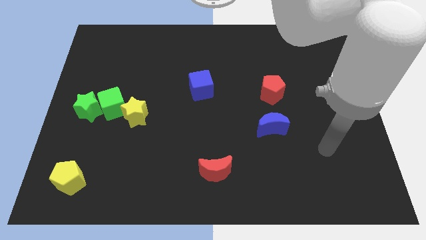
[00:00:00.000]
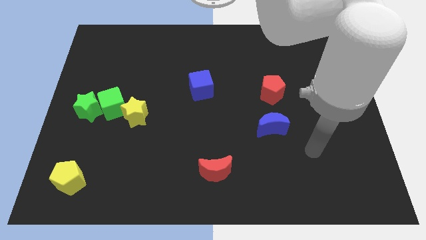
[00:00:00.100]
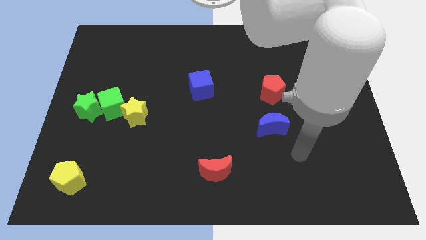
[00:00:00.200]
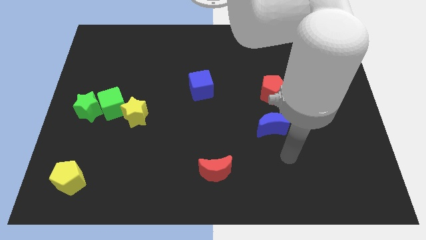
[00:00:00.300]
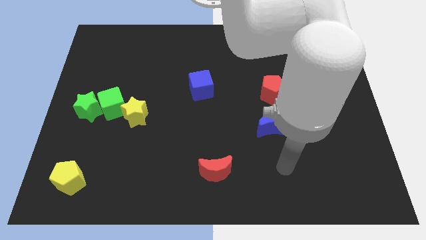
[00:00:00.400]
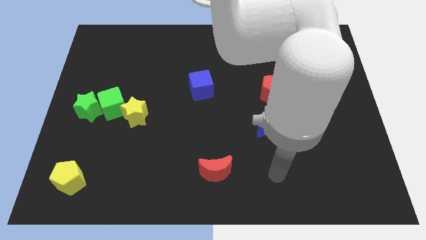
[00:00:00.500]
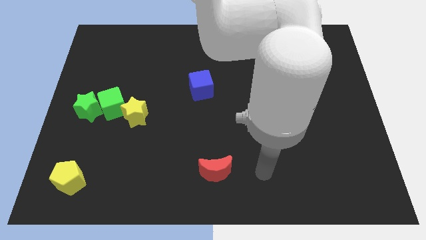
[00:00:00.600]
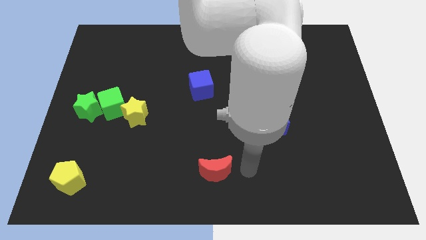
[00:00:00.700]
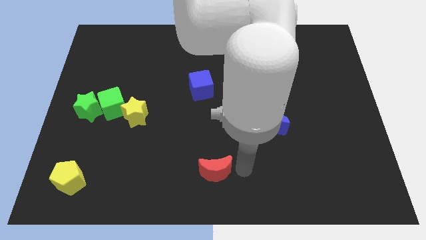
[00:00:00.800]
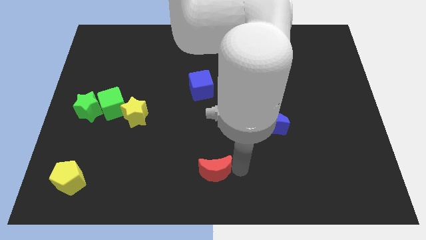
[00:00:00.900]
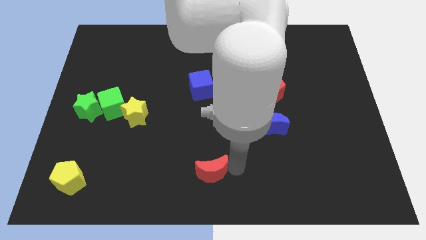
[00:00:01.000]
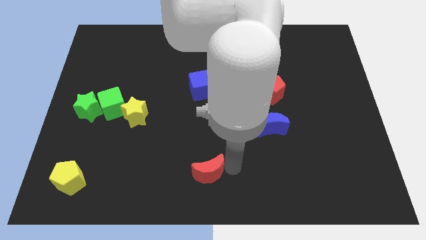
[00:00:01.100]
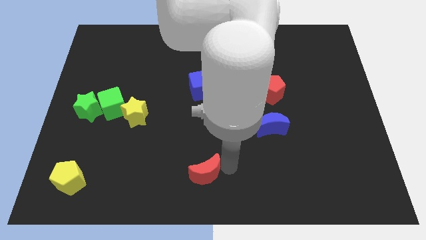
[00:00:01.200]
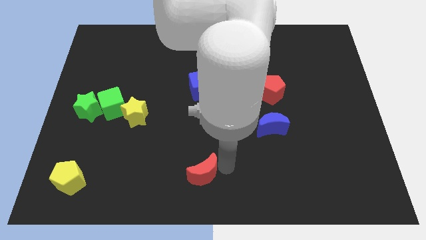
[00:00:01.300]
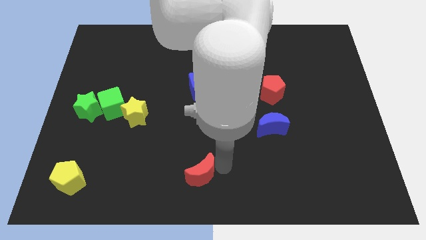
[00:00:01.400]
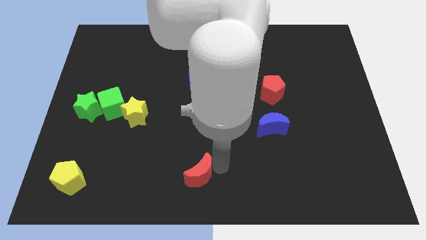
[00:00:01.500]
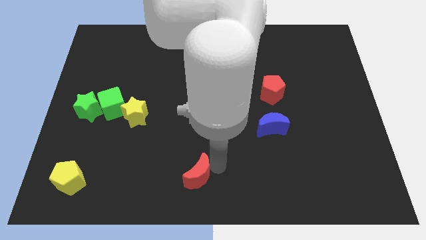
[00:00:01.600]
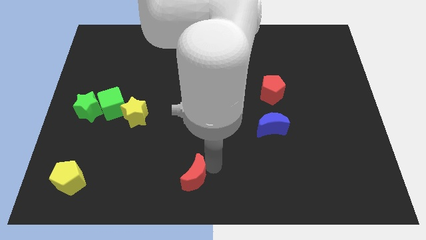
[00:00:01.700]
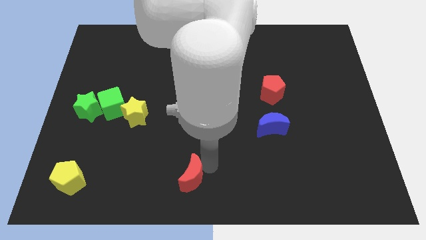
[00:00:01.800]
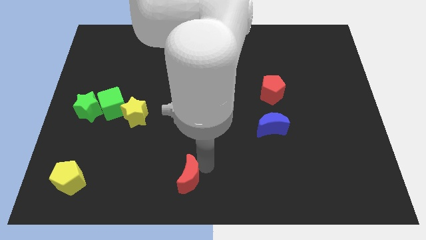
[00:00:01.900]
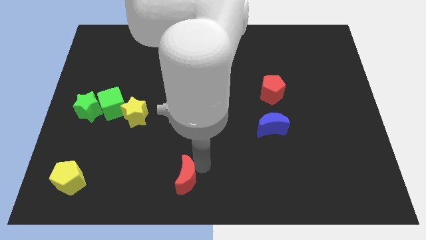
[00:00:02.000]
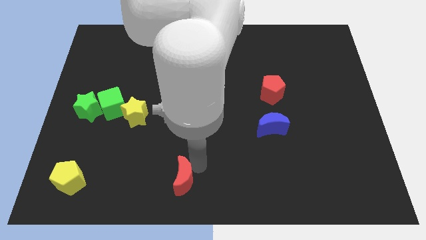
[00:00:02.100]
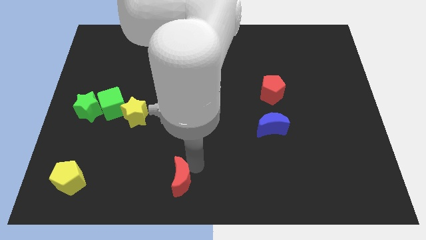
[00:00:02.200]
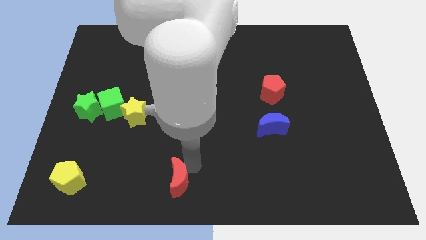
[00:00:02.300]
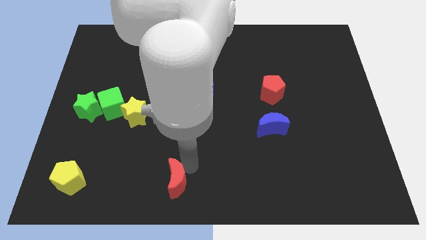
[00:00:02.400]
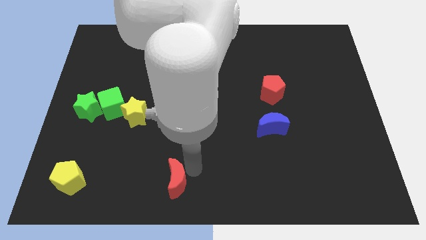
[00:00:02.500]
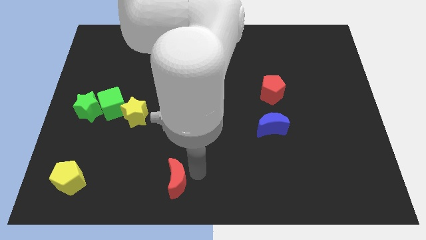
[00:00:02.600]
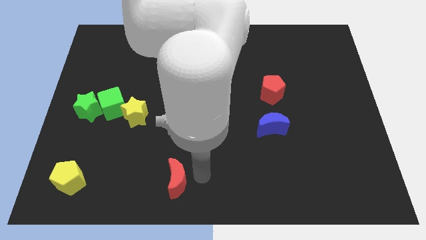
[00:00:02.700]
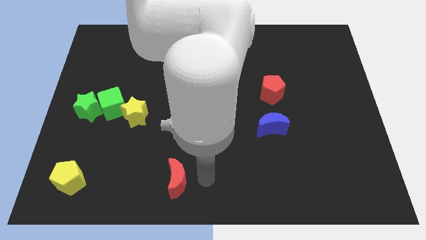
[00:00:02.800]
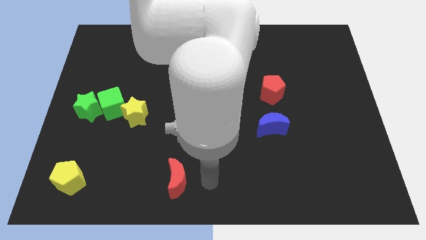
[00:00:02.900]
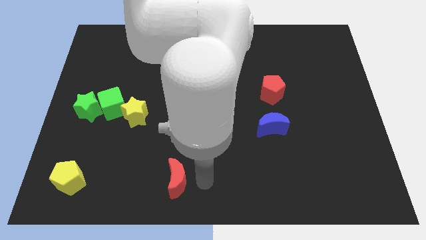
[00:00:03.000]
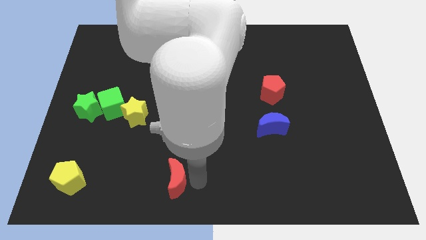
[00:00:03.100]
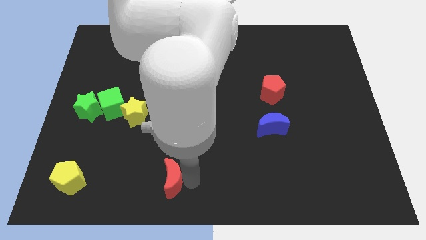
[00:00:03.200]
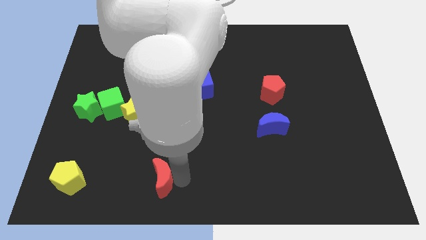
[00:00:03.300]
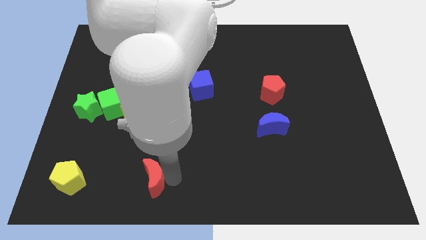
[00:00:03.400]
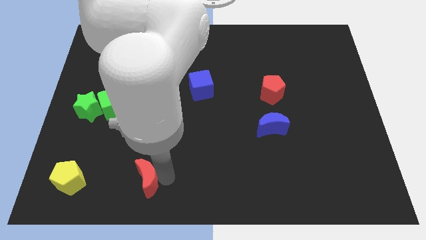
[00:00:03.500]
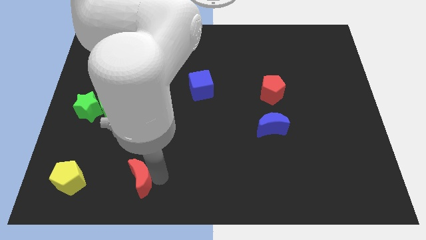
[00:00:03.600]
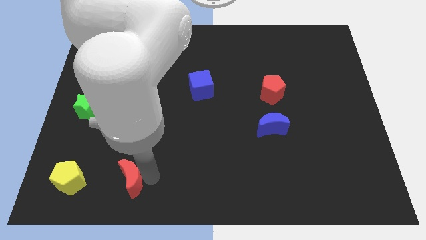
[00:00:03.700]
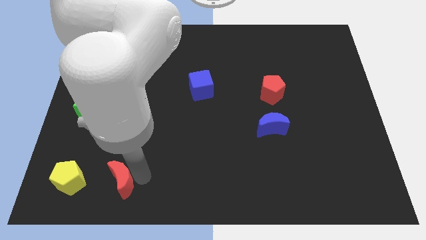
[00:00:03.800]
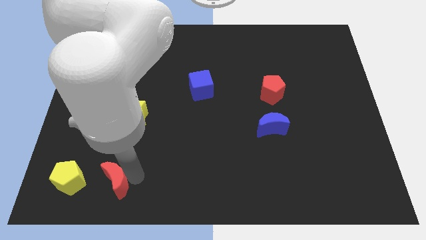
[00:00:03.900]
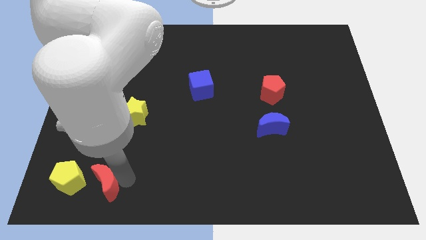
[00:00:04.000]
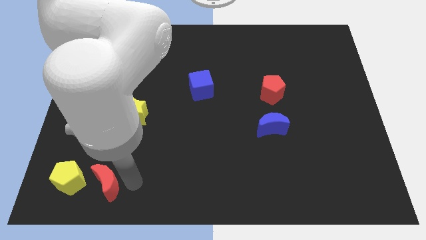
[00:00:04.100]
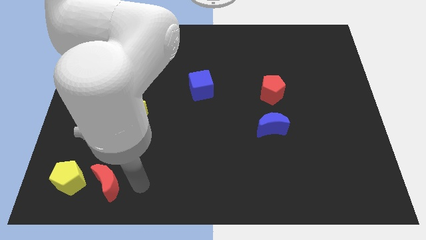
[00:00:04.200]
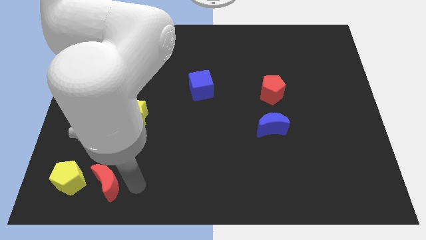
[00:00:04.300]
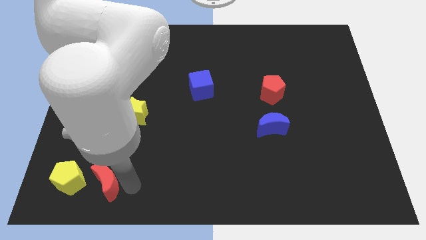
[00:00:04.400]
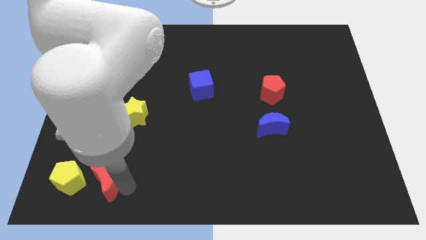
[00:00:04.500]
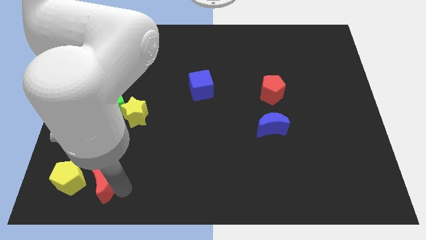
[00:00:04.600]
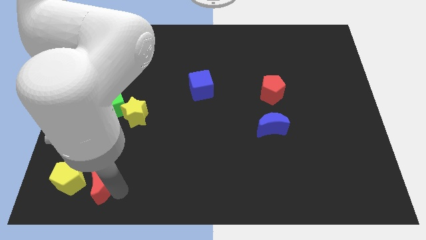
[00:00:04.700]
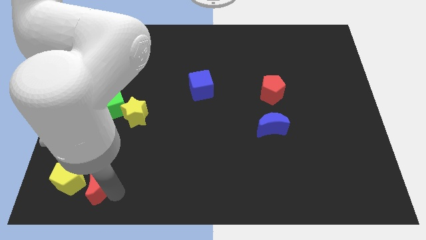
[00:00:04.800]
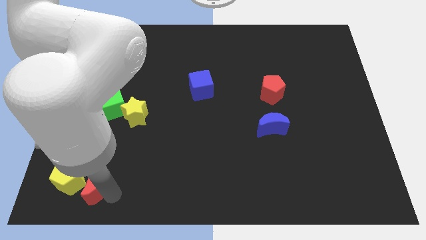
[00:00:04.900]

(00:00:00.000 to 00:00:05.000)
put the red moon close to the yellow pentagon

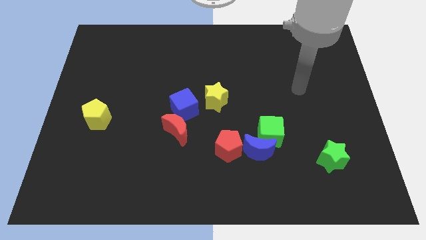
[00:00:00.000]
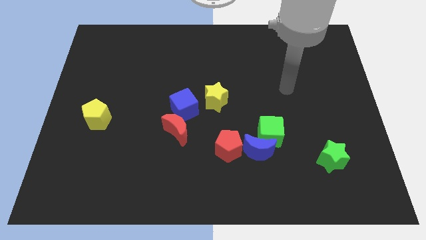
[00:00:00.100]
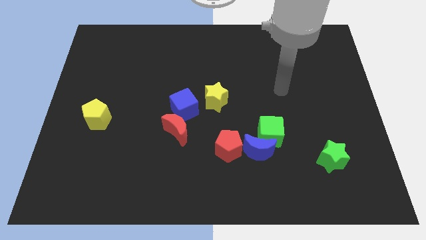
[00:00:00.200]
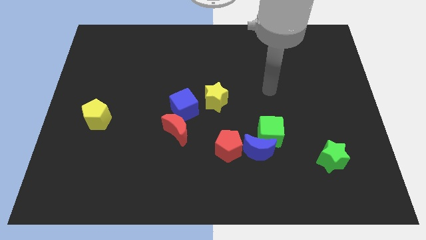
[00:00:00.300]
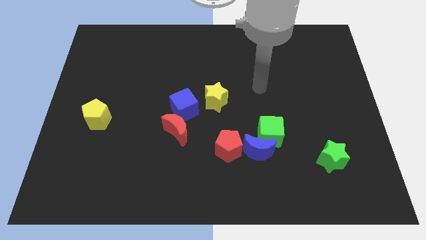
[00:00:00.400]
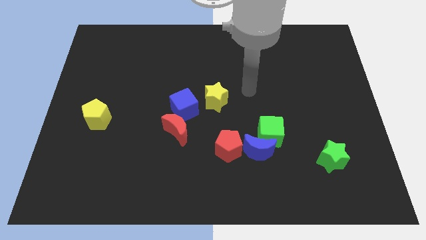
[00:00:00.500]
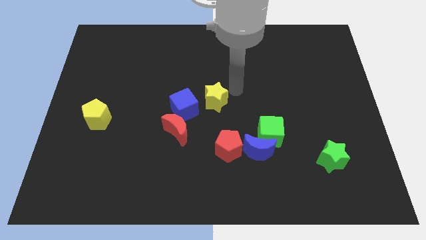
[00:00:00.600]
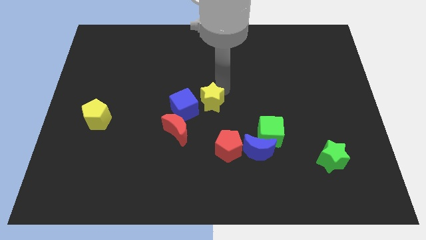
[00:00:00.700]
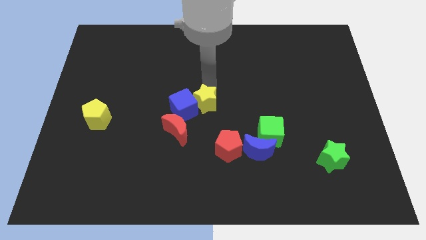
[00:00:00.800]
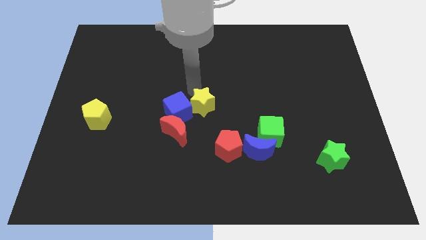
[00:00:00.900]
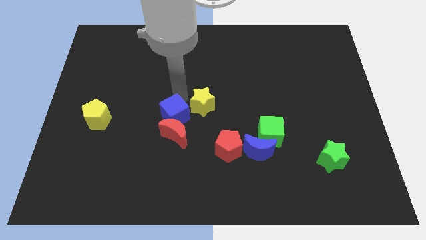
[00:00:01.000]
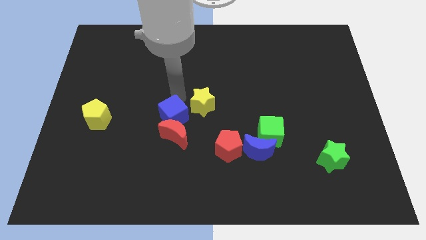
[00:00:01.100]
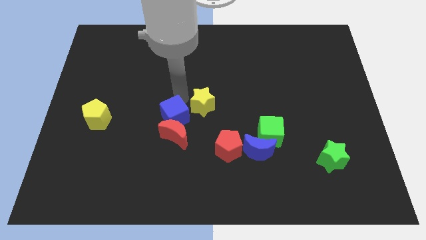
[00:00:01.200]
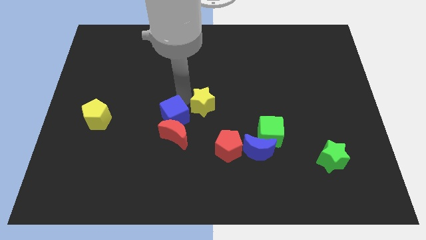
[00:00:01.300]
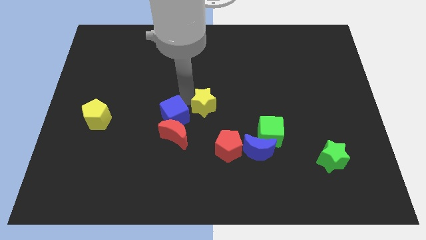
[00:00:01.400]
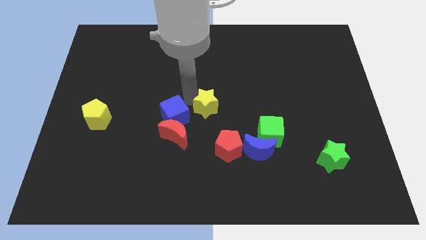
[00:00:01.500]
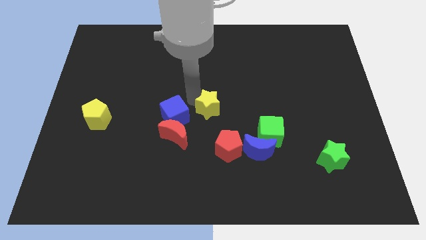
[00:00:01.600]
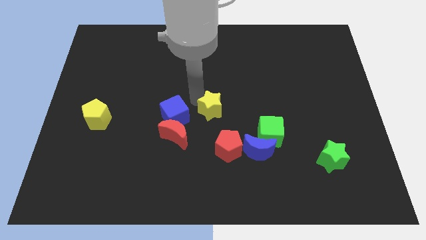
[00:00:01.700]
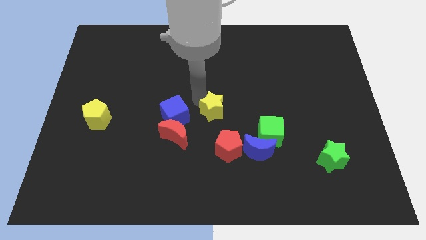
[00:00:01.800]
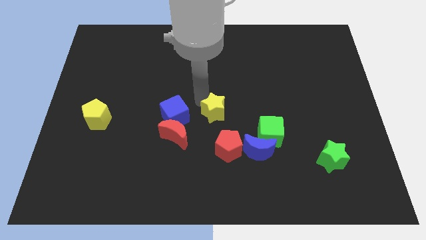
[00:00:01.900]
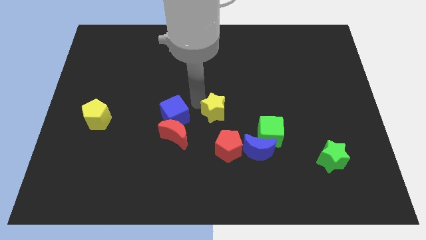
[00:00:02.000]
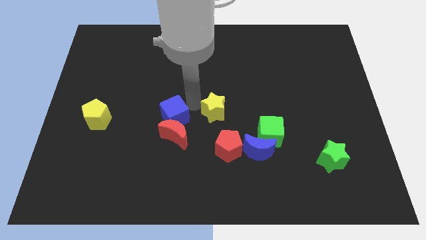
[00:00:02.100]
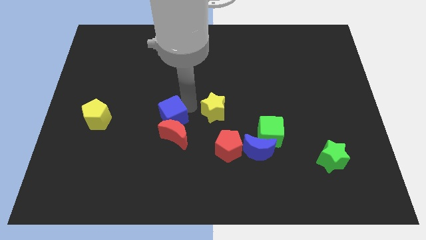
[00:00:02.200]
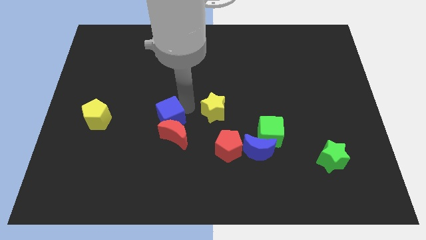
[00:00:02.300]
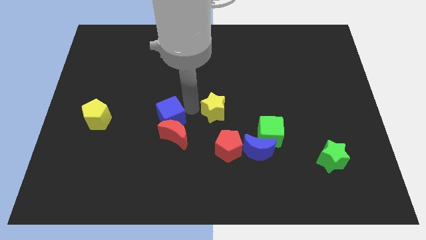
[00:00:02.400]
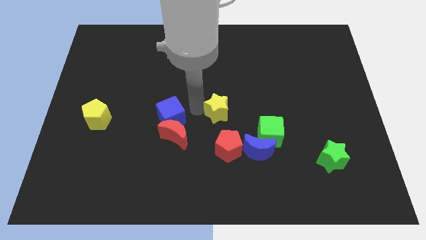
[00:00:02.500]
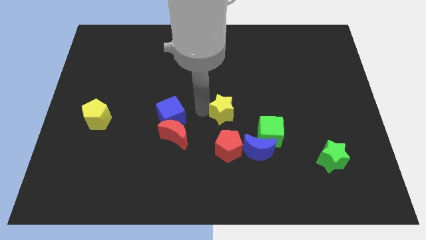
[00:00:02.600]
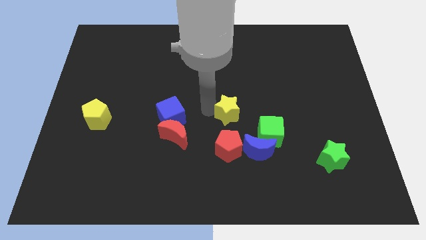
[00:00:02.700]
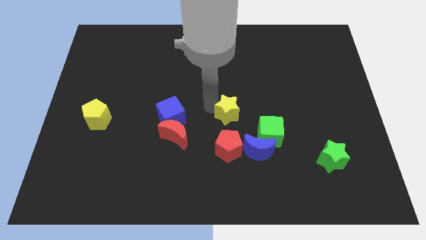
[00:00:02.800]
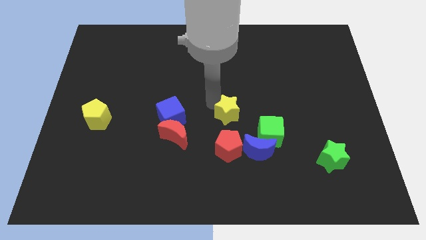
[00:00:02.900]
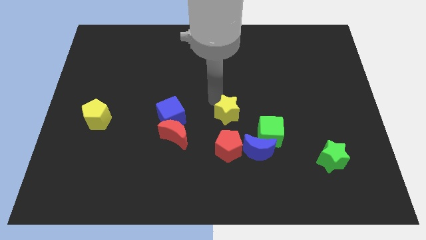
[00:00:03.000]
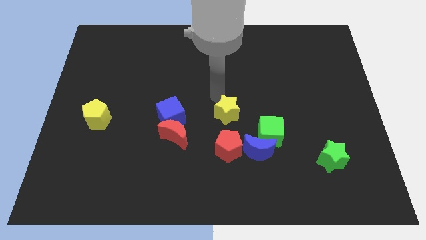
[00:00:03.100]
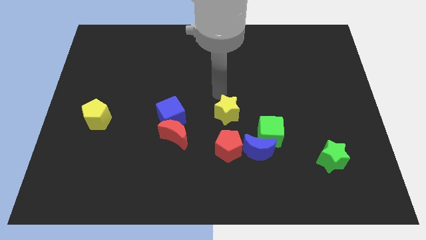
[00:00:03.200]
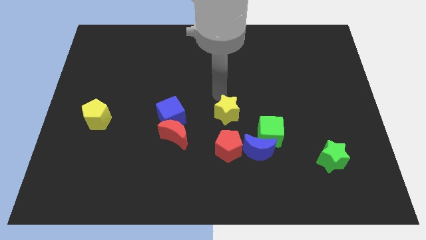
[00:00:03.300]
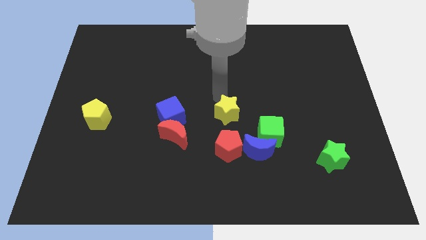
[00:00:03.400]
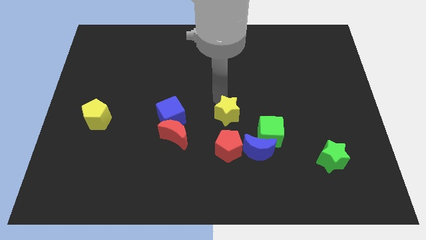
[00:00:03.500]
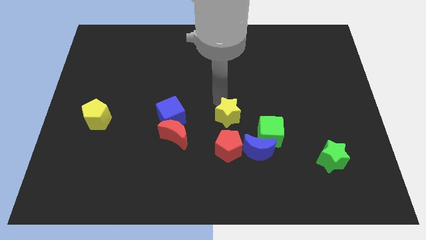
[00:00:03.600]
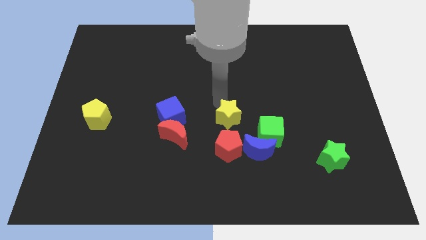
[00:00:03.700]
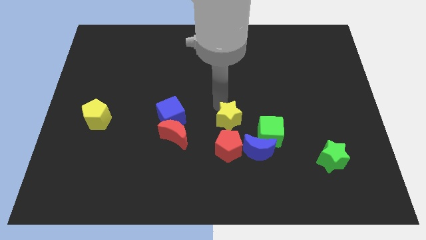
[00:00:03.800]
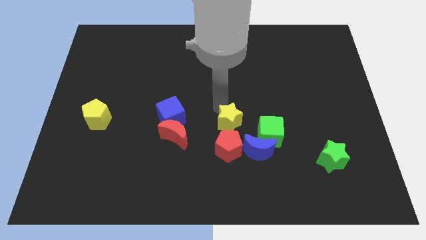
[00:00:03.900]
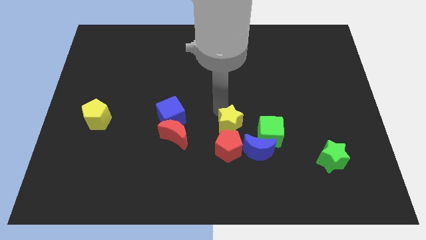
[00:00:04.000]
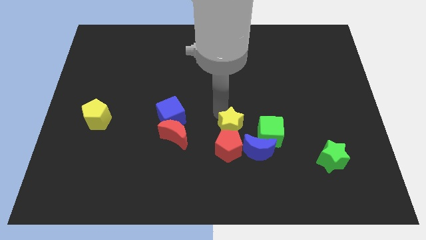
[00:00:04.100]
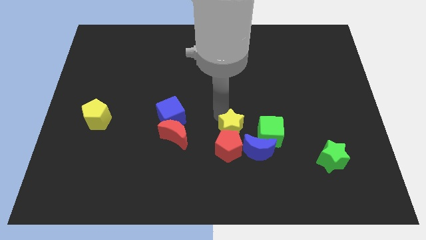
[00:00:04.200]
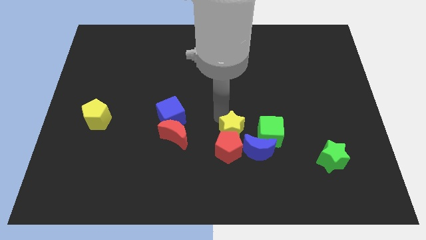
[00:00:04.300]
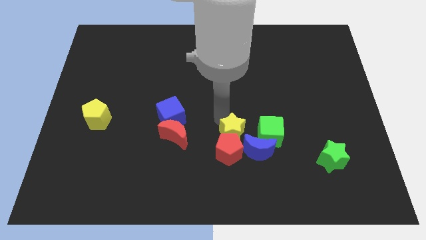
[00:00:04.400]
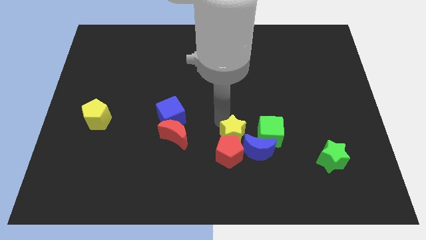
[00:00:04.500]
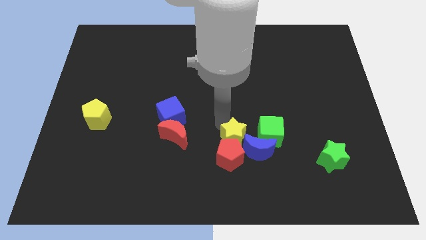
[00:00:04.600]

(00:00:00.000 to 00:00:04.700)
slide the yellow star towards the blue moon
